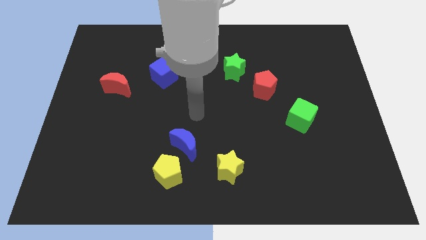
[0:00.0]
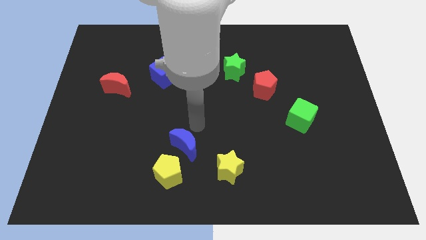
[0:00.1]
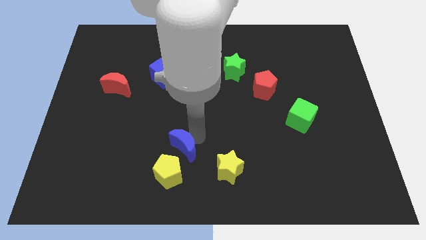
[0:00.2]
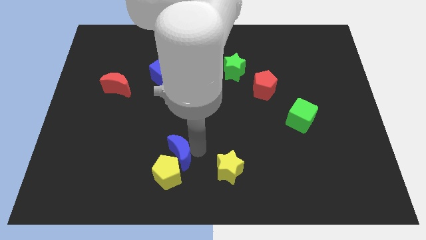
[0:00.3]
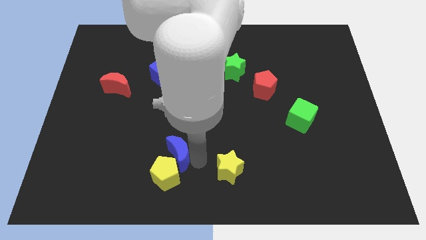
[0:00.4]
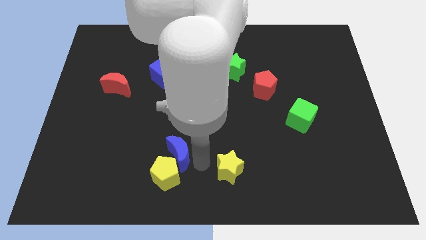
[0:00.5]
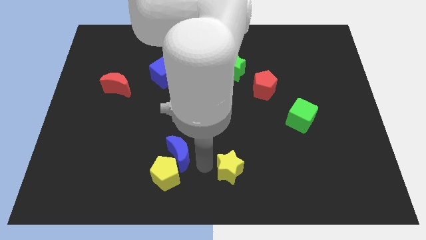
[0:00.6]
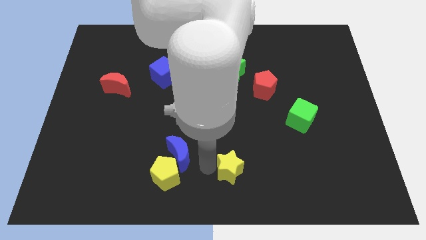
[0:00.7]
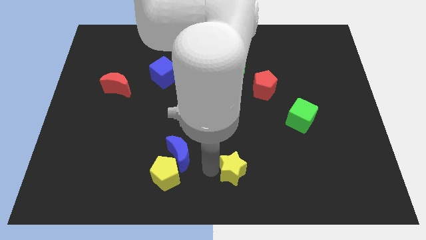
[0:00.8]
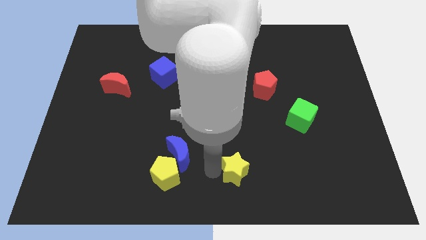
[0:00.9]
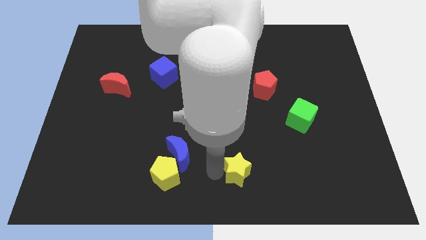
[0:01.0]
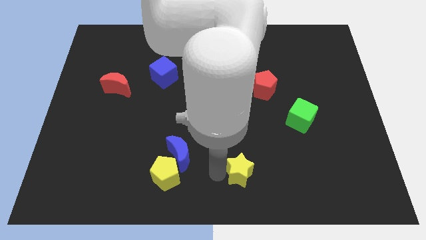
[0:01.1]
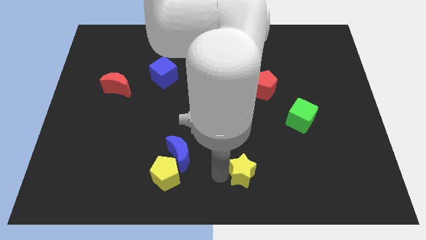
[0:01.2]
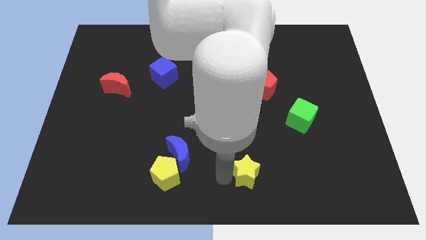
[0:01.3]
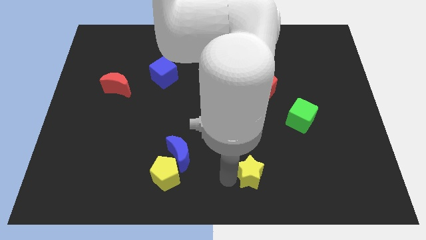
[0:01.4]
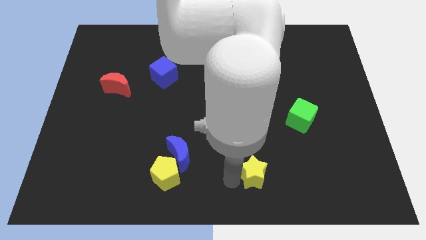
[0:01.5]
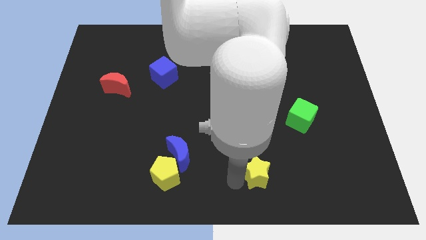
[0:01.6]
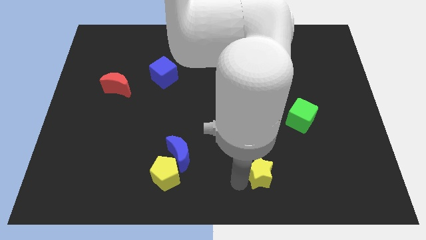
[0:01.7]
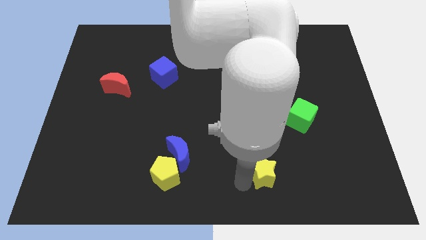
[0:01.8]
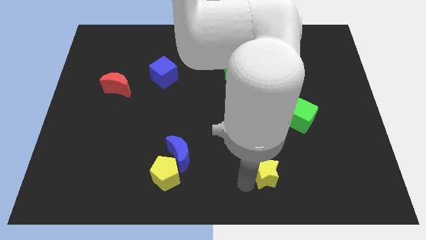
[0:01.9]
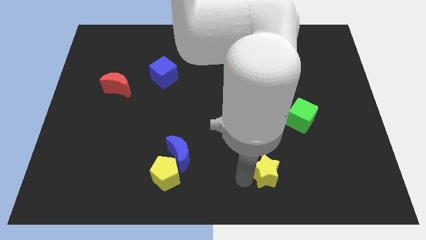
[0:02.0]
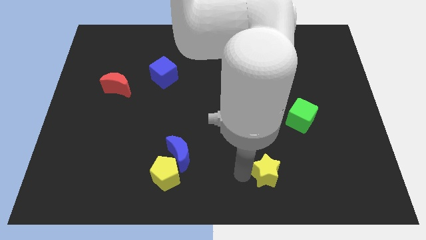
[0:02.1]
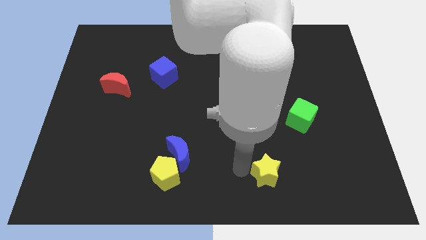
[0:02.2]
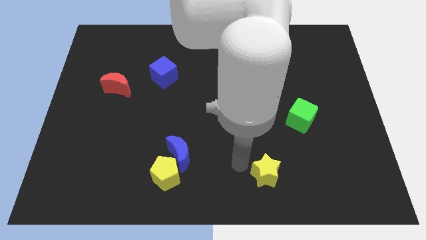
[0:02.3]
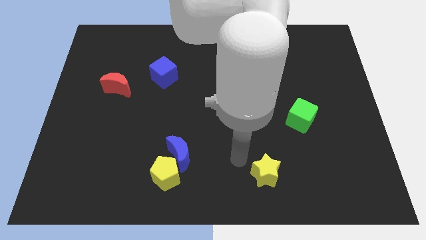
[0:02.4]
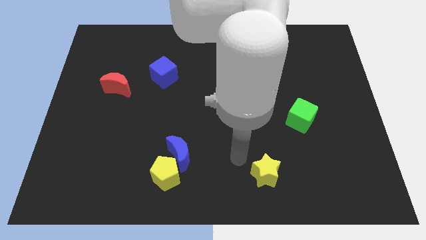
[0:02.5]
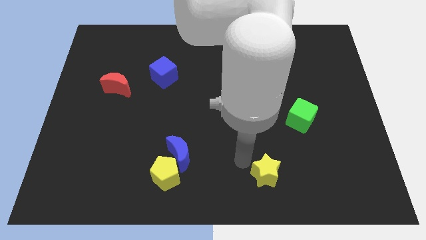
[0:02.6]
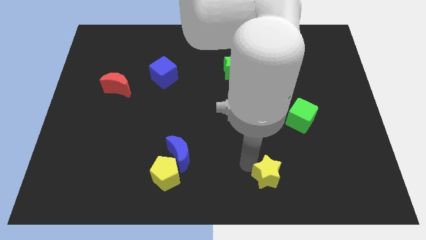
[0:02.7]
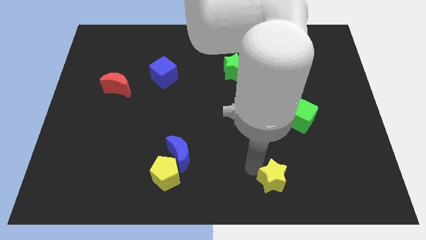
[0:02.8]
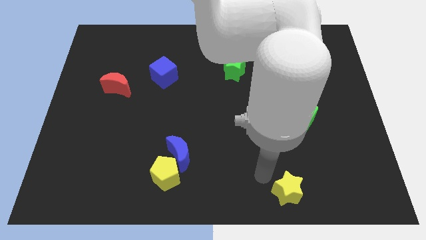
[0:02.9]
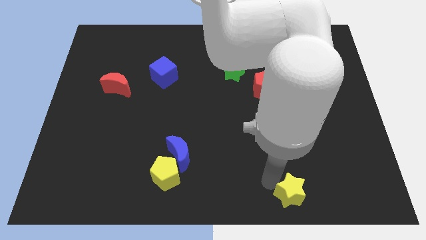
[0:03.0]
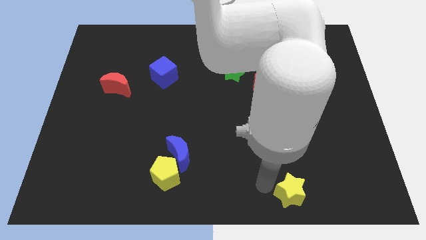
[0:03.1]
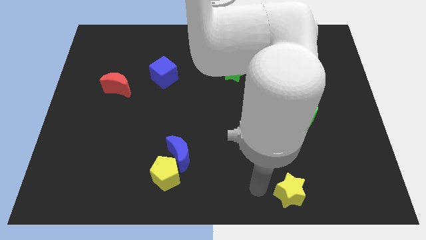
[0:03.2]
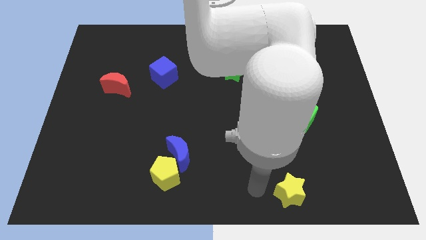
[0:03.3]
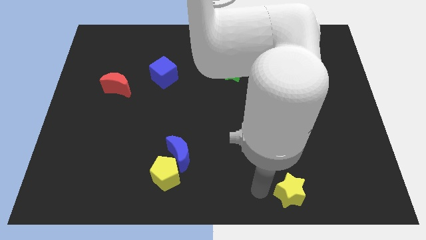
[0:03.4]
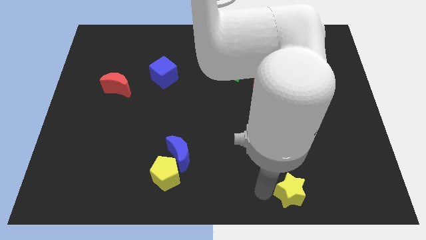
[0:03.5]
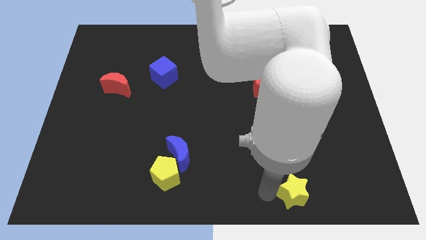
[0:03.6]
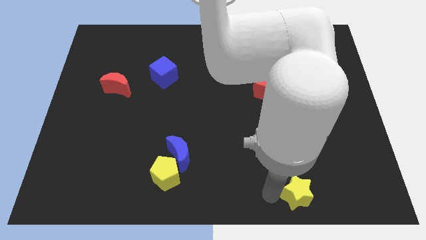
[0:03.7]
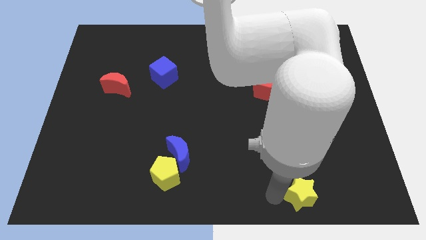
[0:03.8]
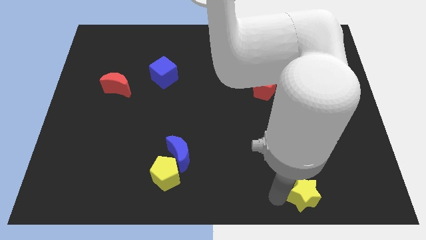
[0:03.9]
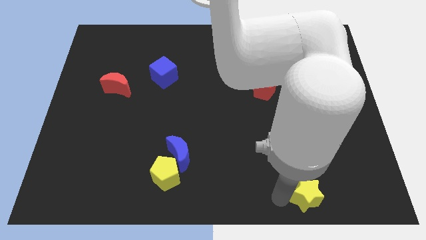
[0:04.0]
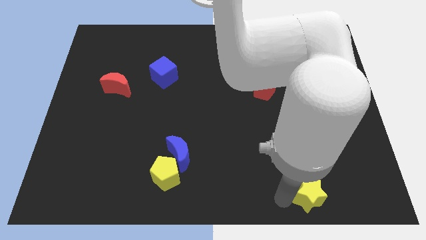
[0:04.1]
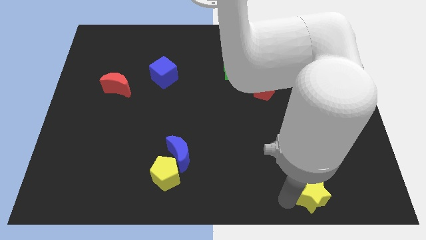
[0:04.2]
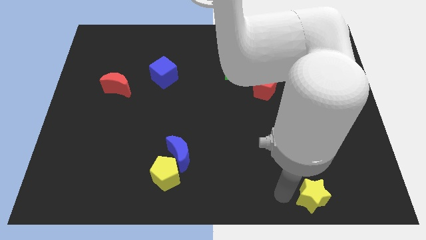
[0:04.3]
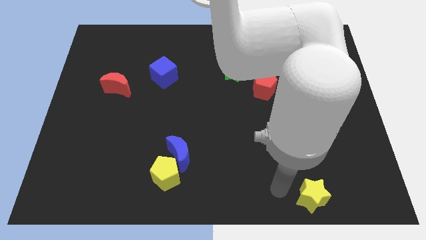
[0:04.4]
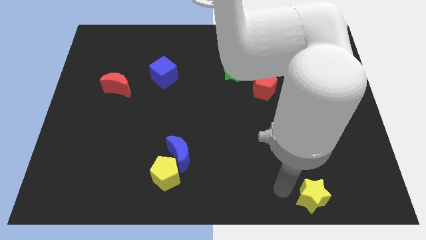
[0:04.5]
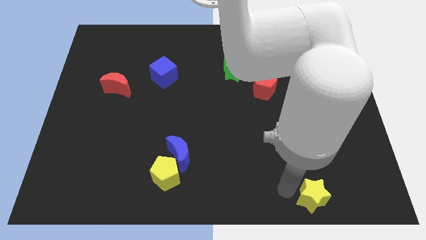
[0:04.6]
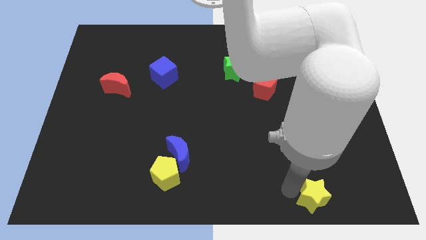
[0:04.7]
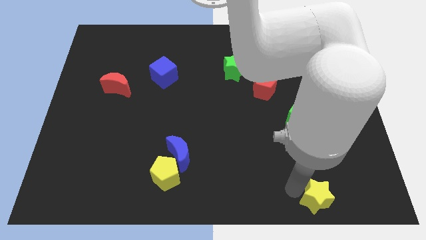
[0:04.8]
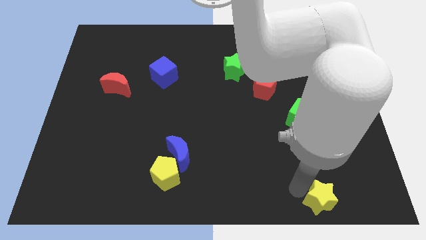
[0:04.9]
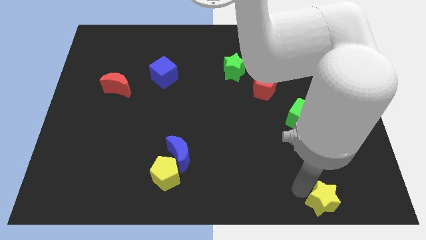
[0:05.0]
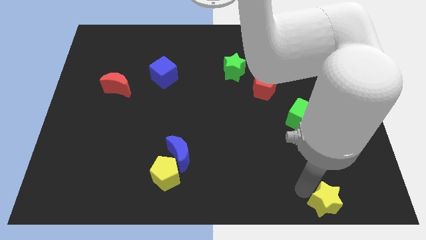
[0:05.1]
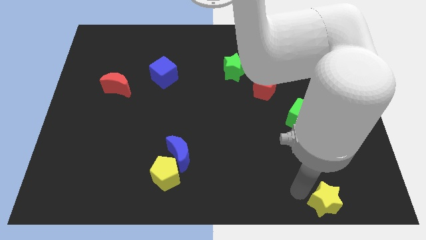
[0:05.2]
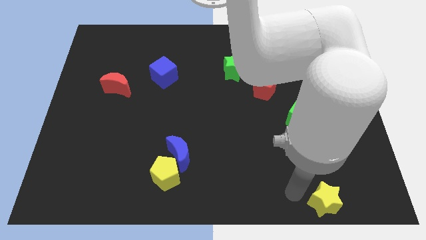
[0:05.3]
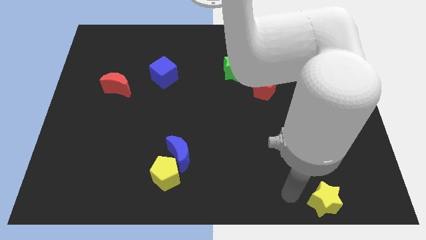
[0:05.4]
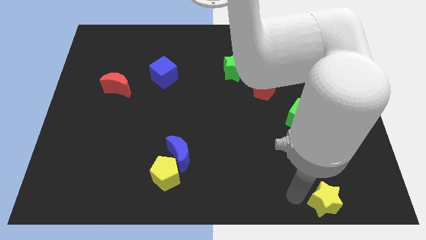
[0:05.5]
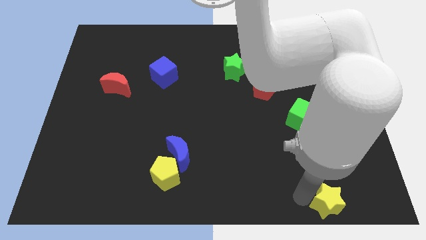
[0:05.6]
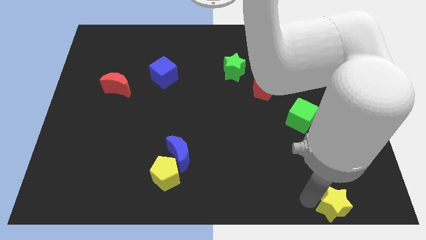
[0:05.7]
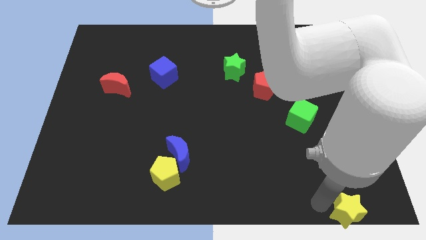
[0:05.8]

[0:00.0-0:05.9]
slide the yellow star to the bottom right

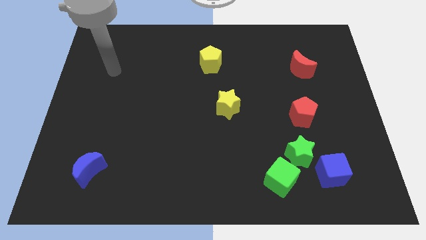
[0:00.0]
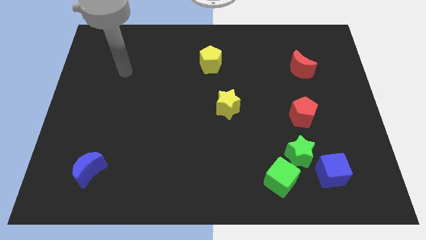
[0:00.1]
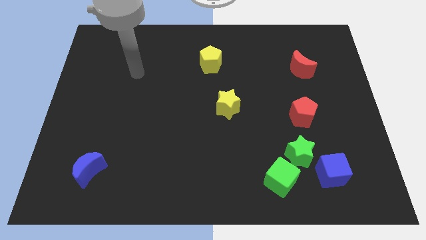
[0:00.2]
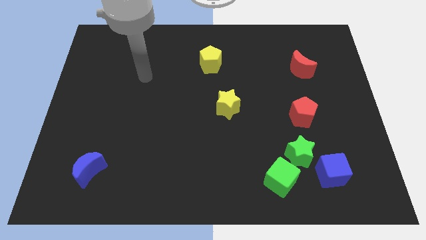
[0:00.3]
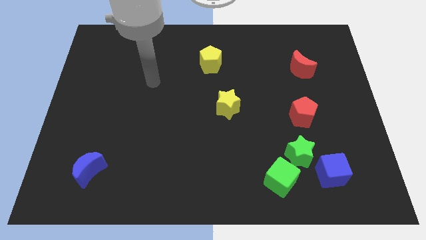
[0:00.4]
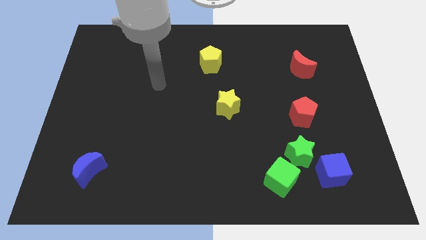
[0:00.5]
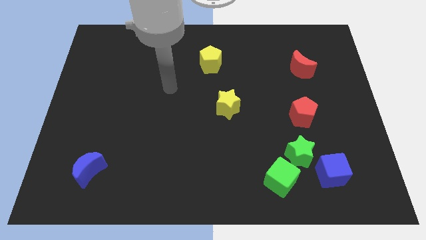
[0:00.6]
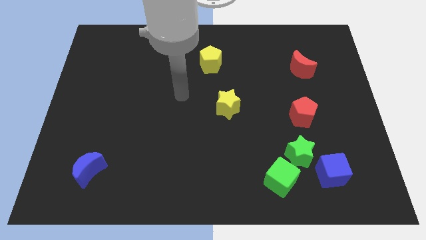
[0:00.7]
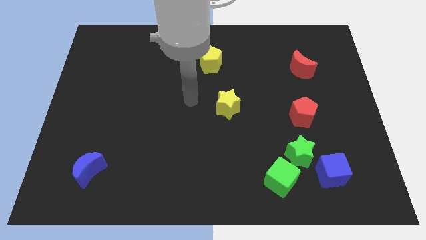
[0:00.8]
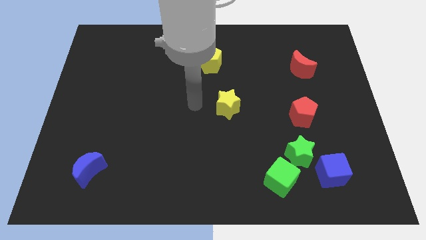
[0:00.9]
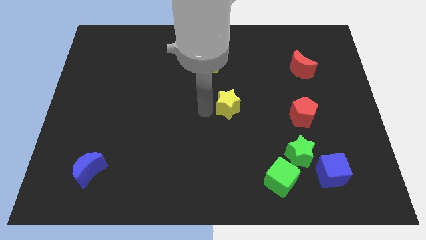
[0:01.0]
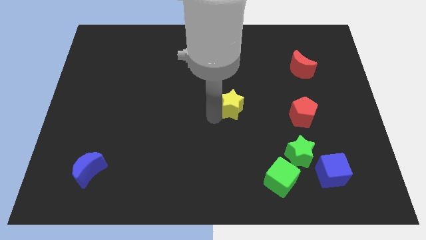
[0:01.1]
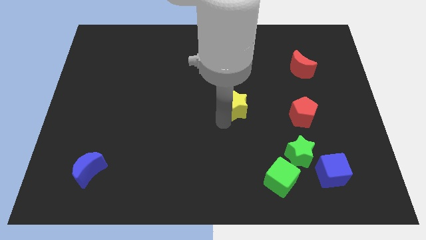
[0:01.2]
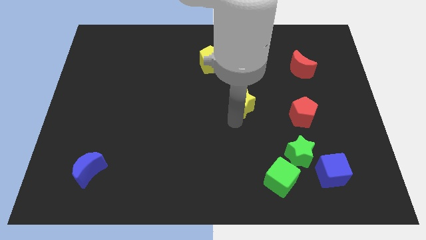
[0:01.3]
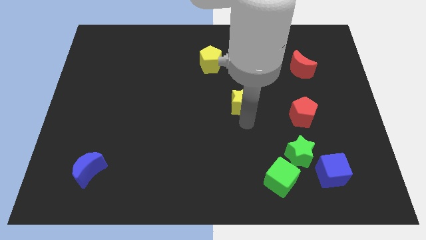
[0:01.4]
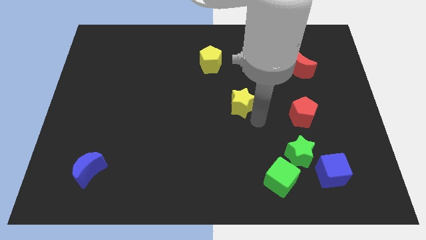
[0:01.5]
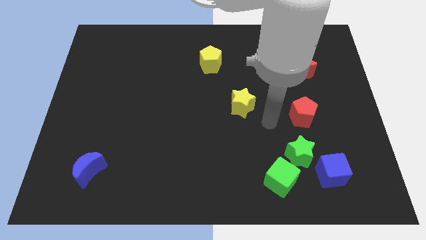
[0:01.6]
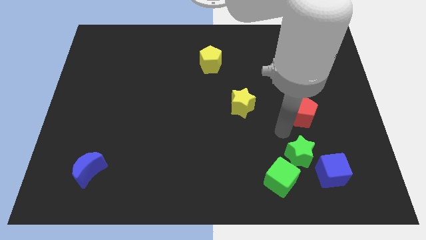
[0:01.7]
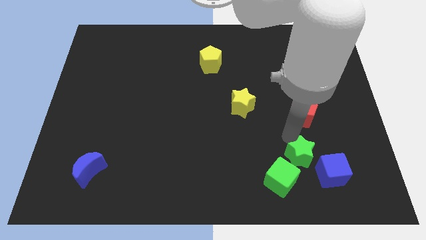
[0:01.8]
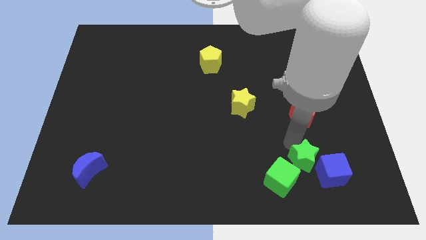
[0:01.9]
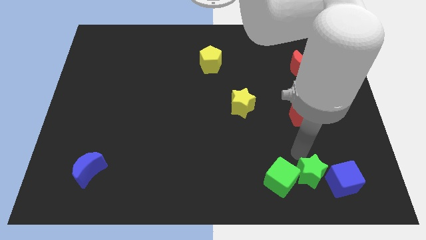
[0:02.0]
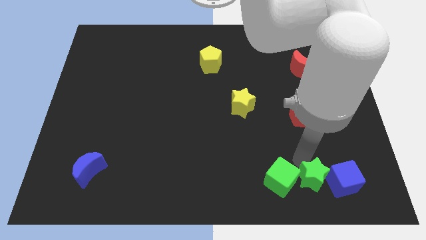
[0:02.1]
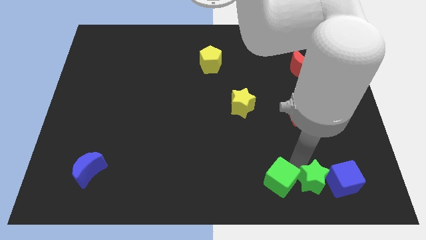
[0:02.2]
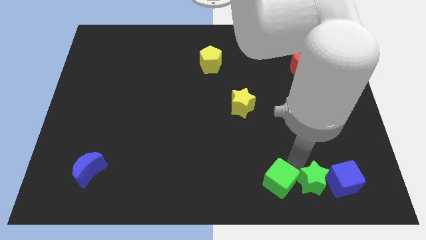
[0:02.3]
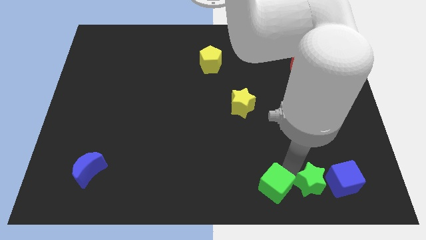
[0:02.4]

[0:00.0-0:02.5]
push the green cube to the bottom side
